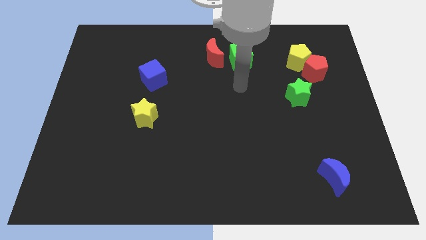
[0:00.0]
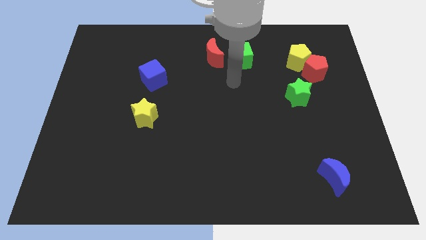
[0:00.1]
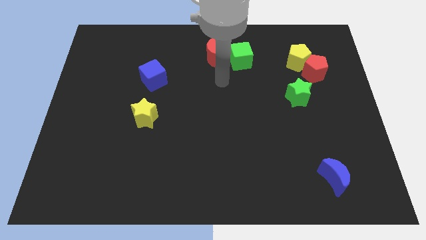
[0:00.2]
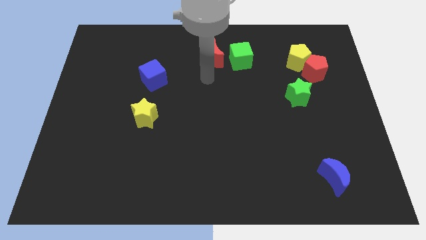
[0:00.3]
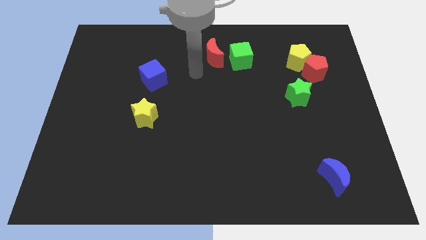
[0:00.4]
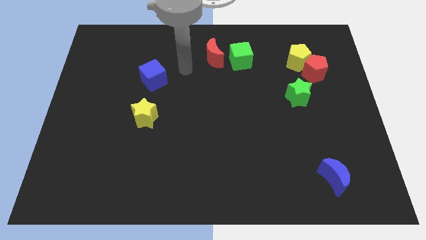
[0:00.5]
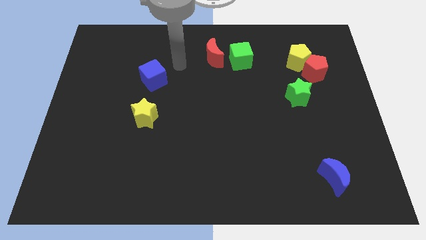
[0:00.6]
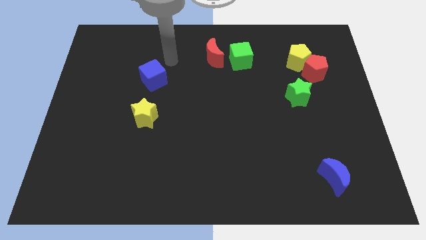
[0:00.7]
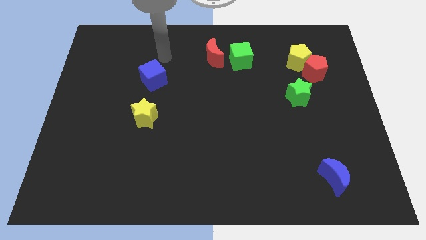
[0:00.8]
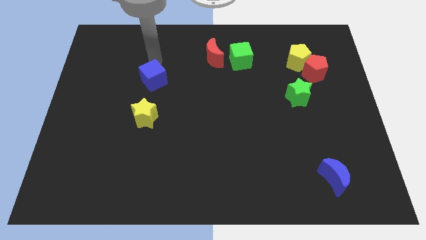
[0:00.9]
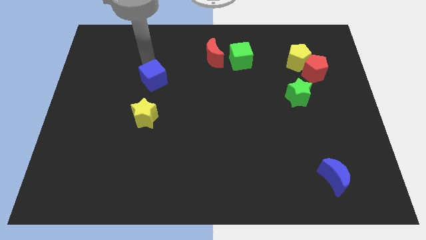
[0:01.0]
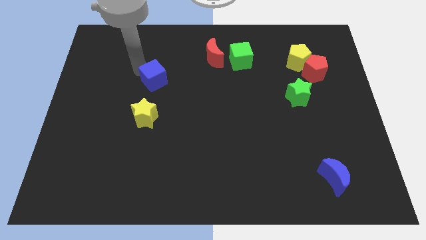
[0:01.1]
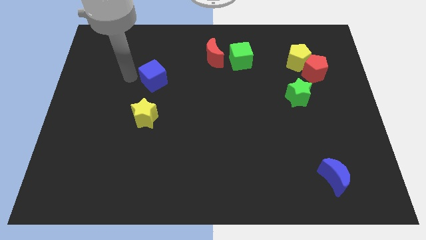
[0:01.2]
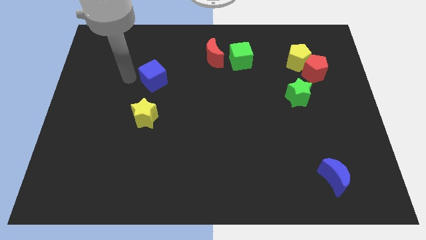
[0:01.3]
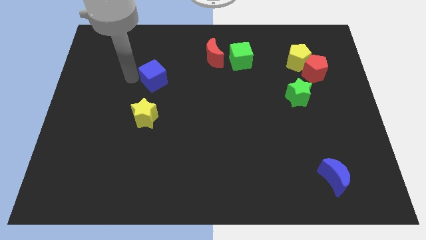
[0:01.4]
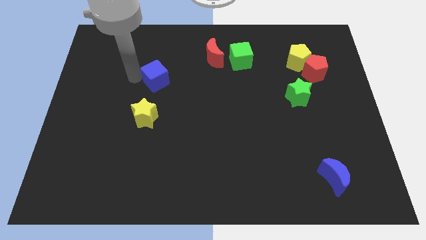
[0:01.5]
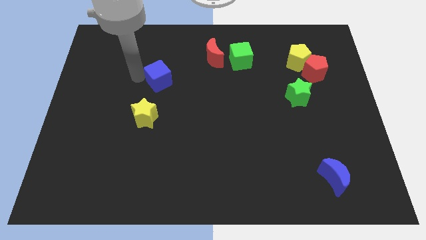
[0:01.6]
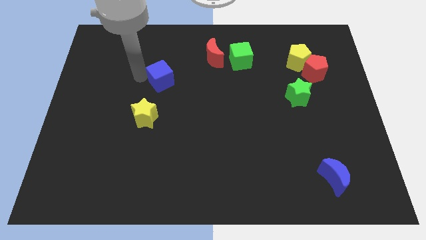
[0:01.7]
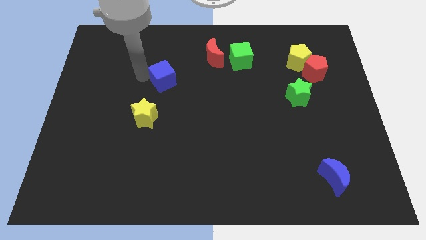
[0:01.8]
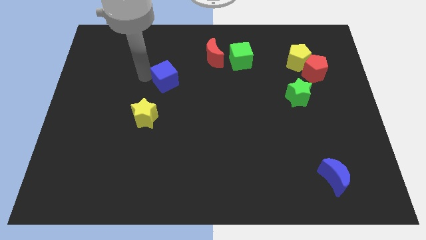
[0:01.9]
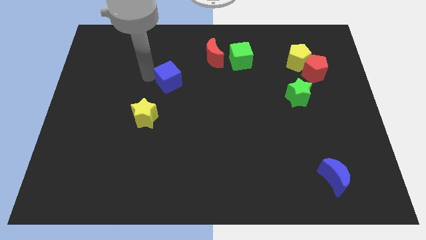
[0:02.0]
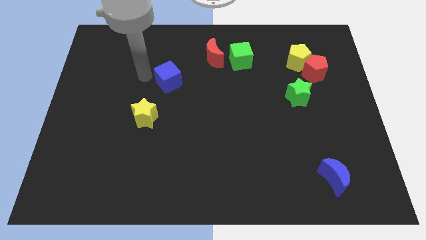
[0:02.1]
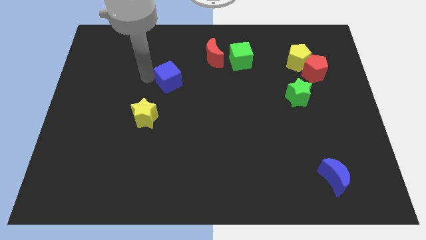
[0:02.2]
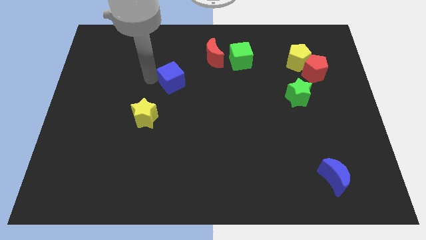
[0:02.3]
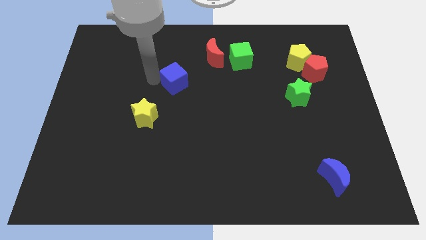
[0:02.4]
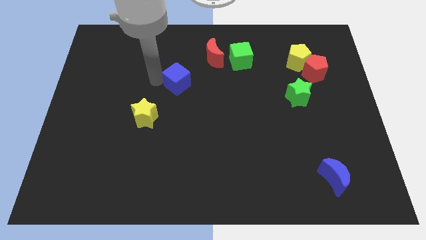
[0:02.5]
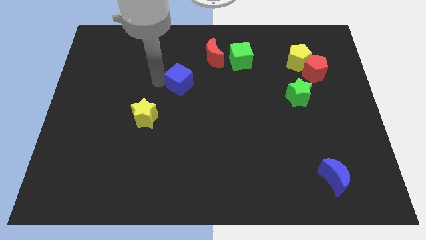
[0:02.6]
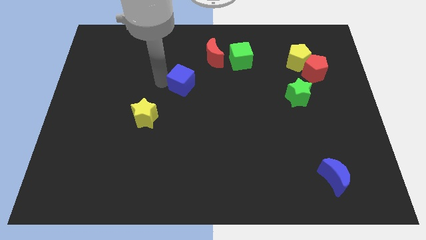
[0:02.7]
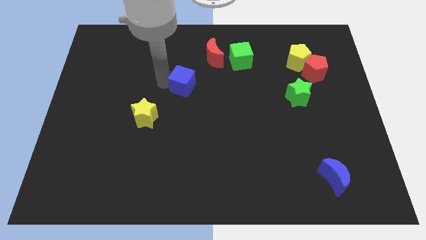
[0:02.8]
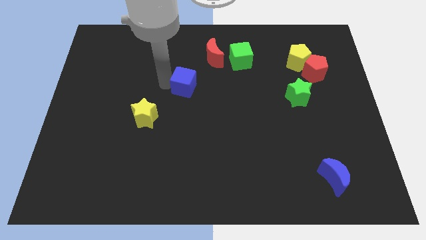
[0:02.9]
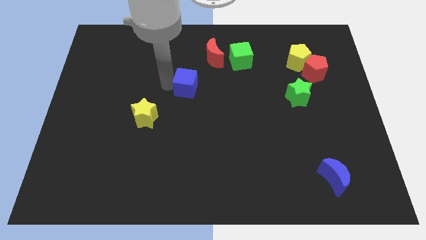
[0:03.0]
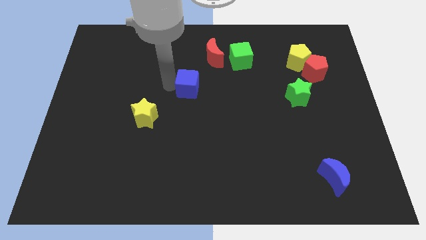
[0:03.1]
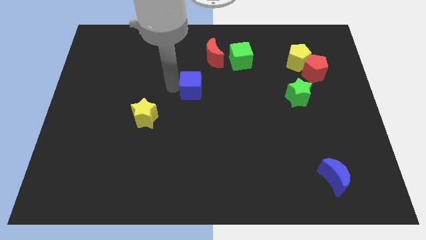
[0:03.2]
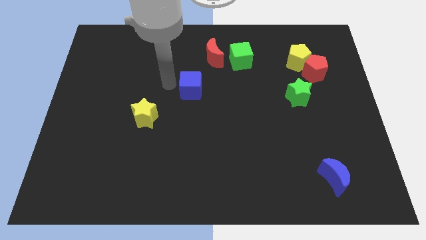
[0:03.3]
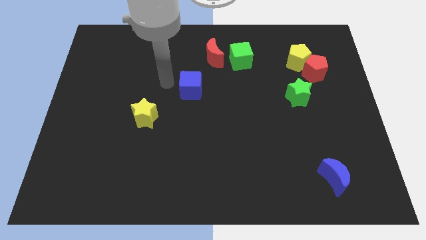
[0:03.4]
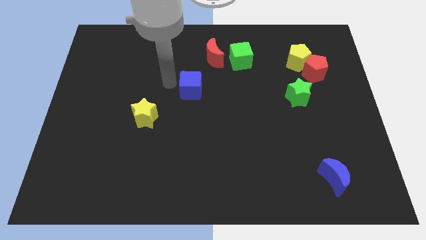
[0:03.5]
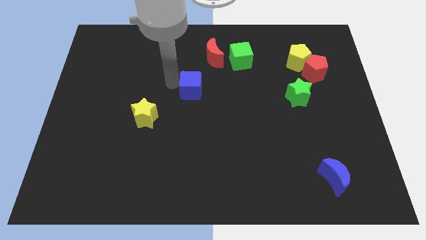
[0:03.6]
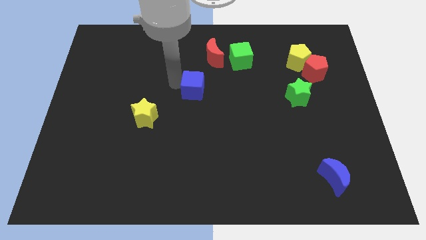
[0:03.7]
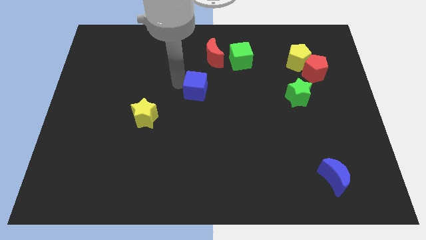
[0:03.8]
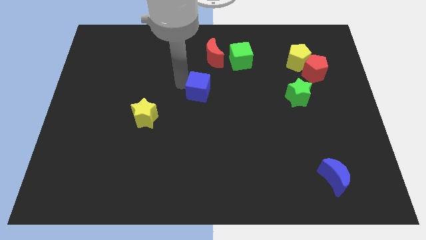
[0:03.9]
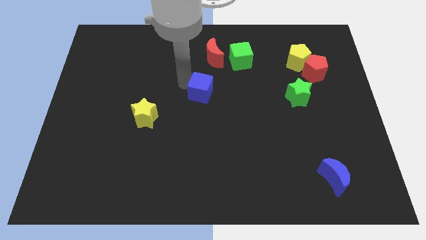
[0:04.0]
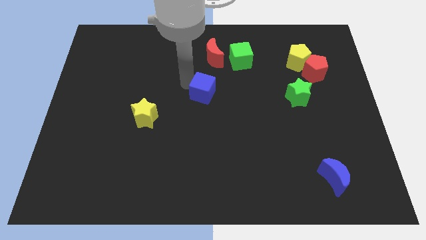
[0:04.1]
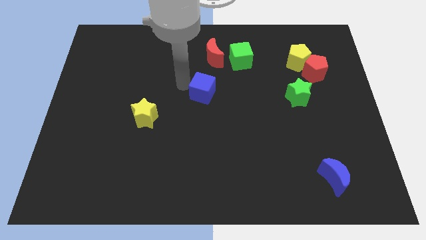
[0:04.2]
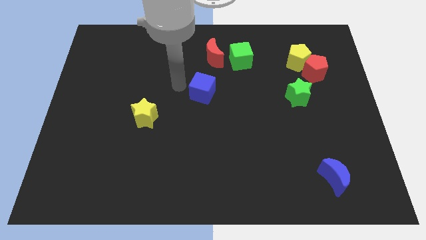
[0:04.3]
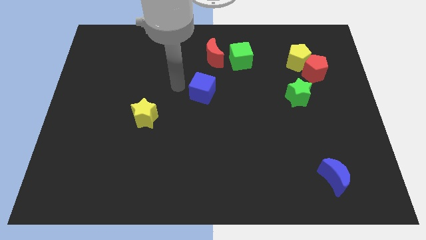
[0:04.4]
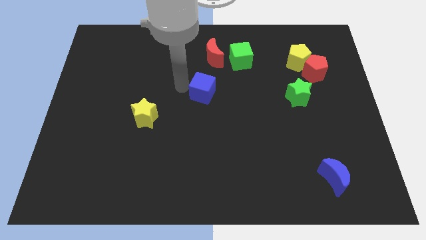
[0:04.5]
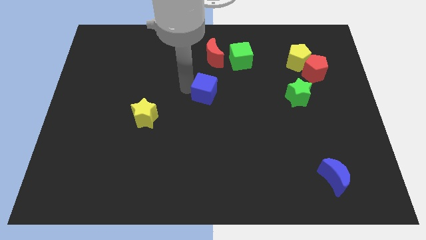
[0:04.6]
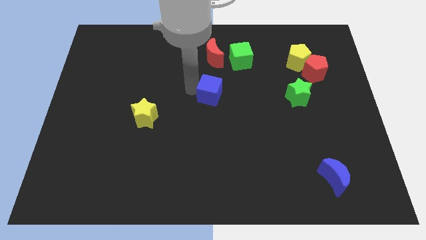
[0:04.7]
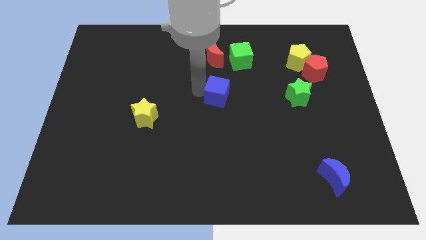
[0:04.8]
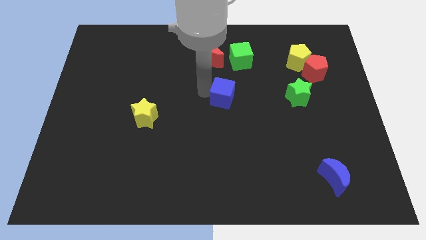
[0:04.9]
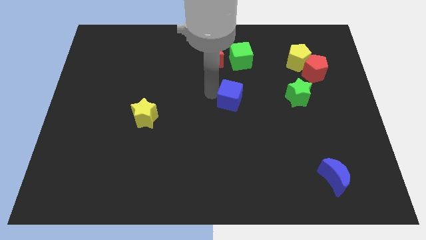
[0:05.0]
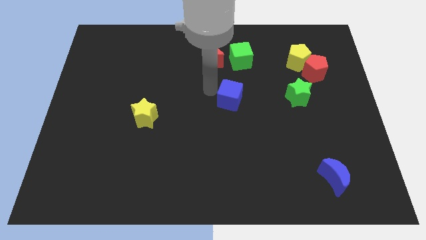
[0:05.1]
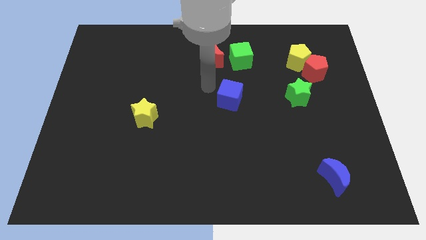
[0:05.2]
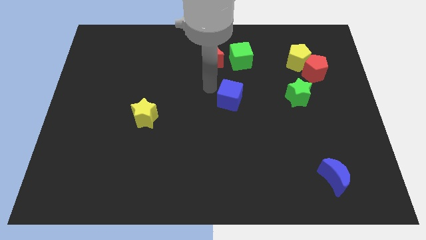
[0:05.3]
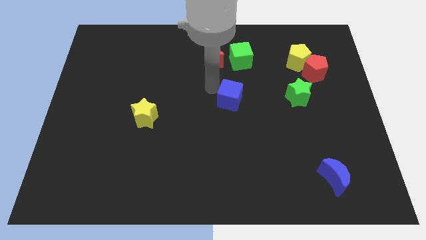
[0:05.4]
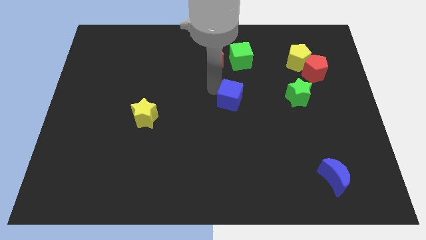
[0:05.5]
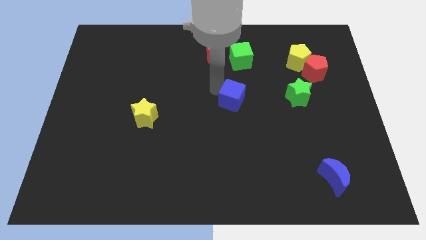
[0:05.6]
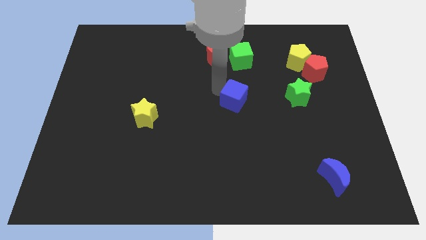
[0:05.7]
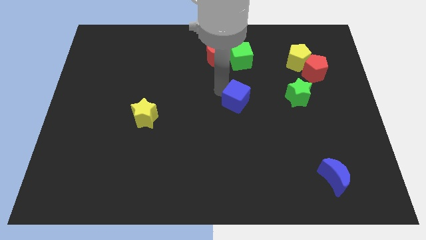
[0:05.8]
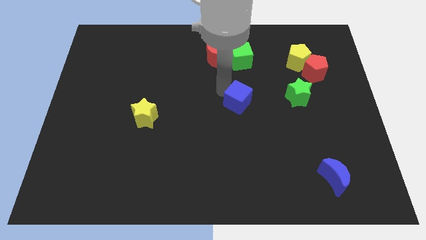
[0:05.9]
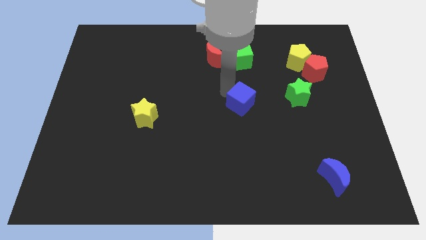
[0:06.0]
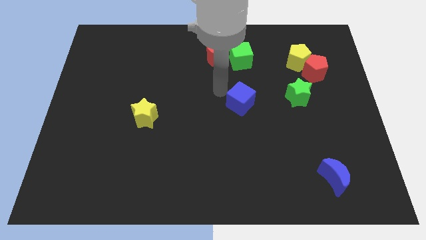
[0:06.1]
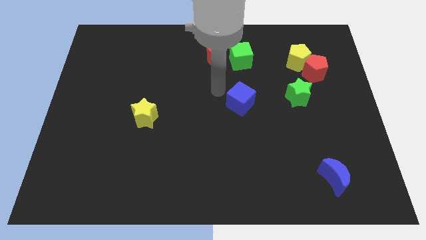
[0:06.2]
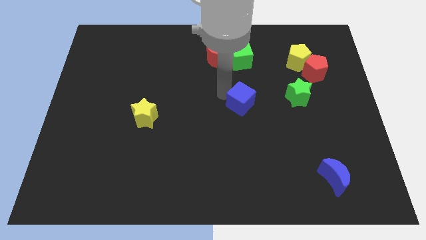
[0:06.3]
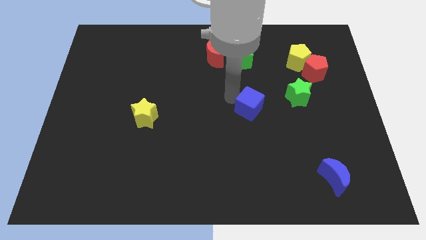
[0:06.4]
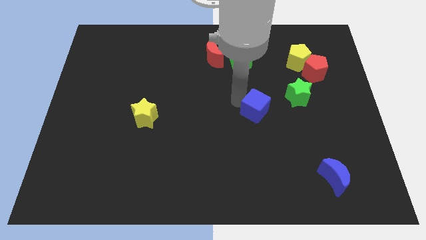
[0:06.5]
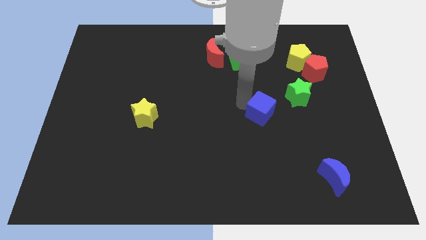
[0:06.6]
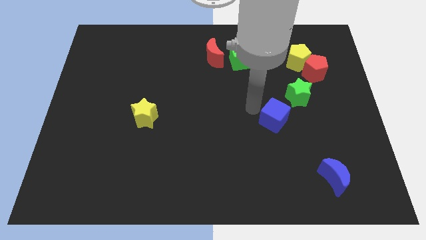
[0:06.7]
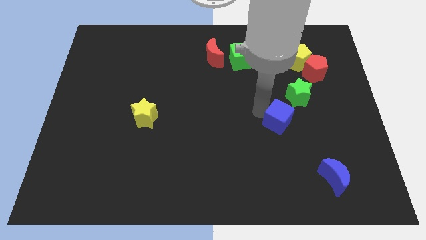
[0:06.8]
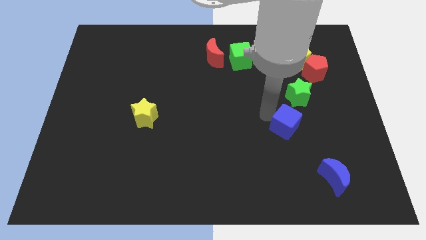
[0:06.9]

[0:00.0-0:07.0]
push the blue cube to the bottom of the green star
